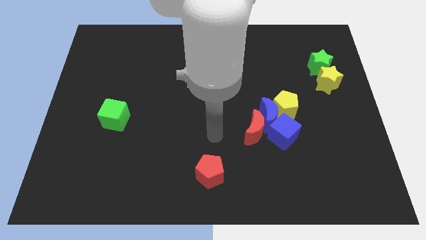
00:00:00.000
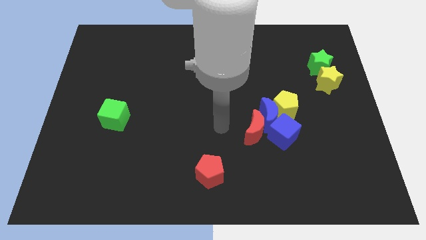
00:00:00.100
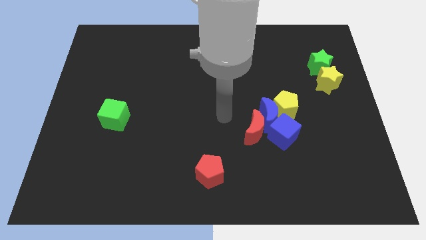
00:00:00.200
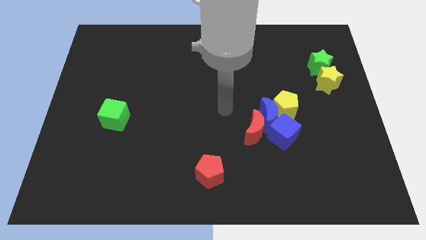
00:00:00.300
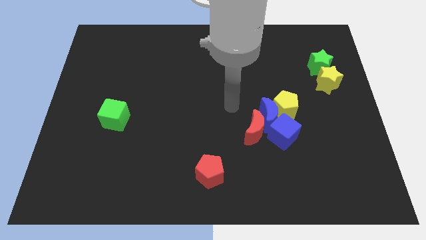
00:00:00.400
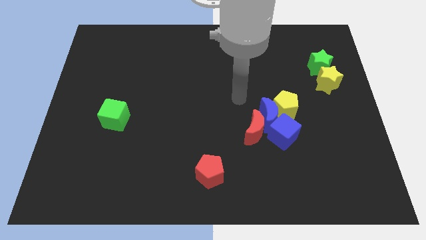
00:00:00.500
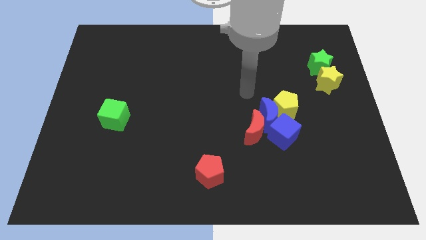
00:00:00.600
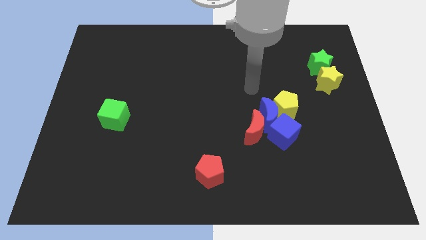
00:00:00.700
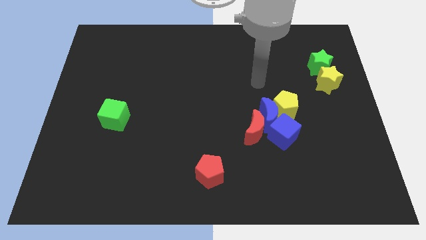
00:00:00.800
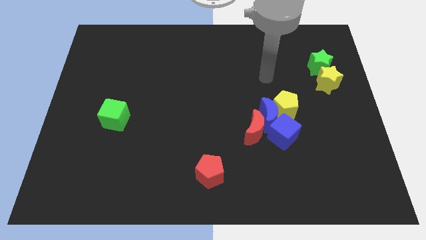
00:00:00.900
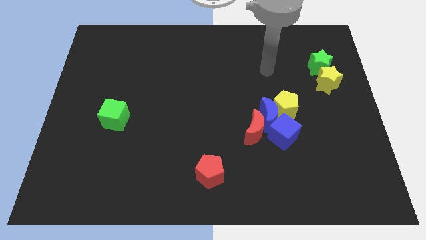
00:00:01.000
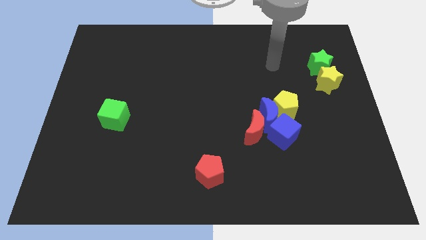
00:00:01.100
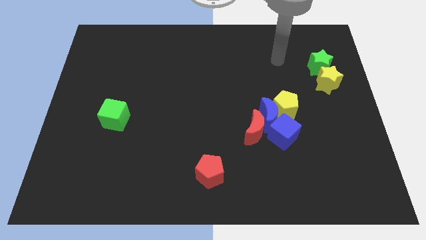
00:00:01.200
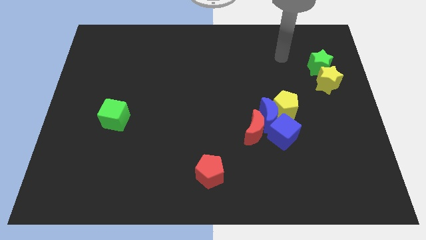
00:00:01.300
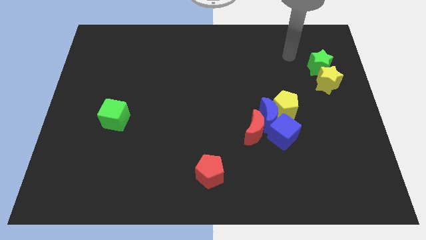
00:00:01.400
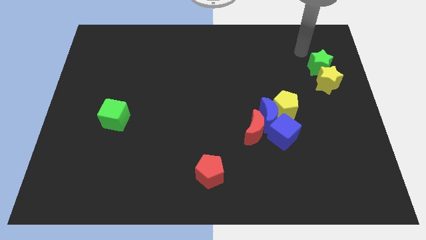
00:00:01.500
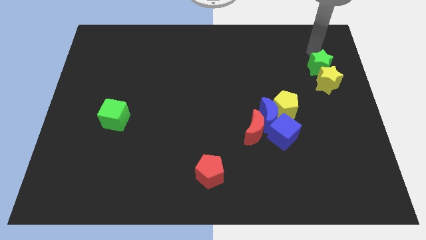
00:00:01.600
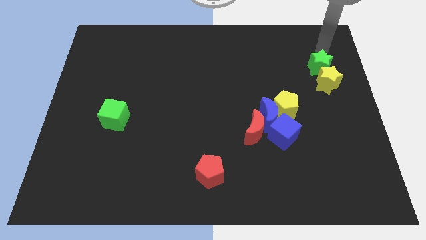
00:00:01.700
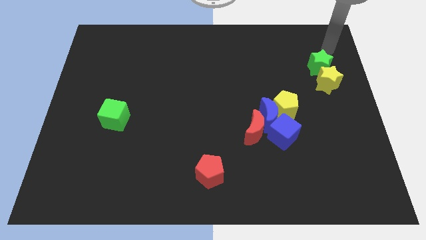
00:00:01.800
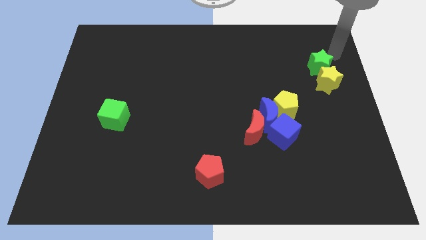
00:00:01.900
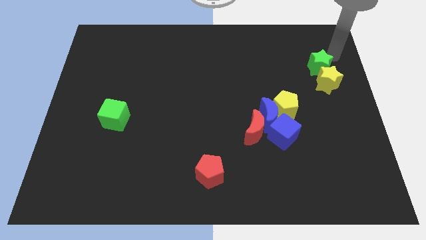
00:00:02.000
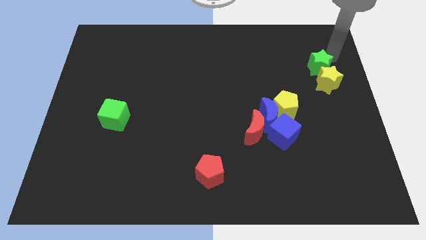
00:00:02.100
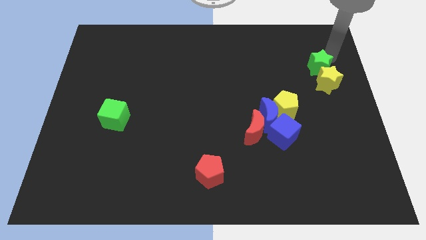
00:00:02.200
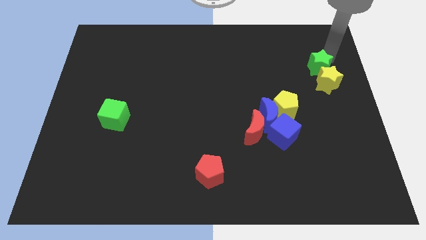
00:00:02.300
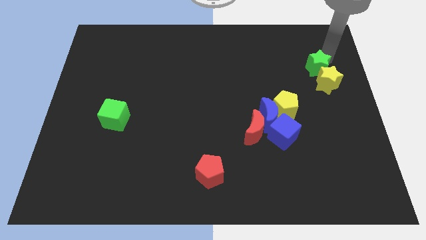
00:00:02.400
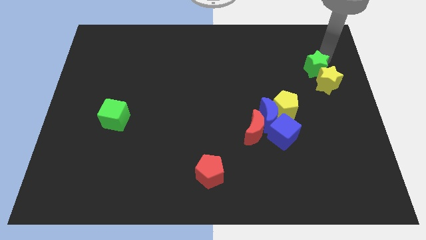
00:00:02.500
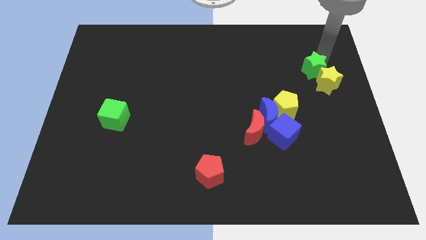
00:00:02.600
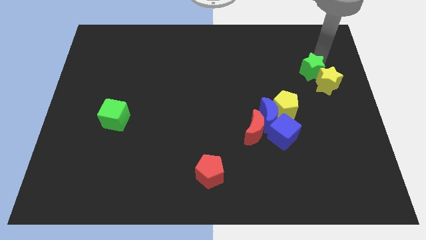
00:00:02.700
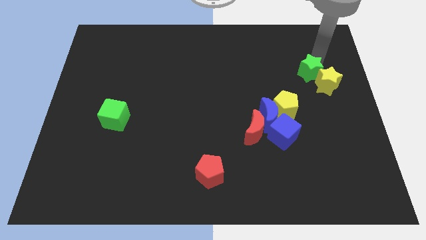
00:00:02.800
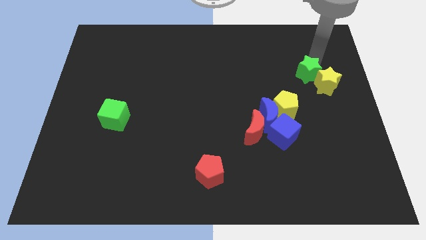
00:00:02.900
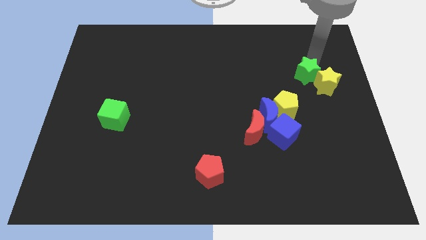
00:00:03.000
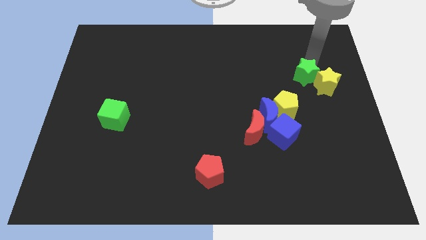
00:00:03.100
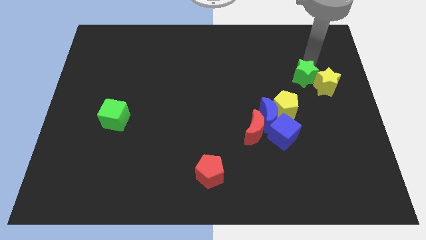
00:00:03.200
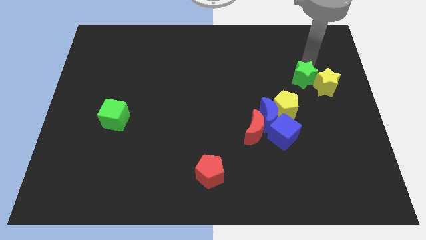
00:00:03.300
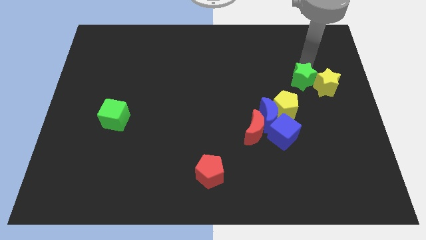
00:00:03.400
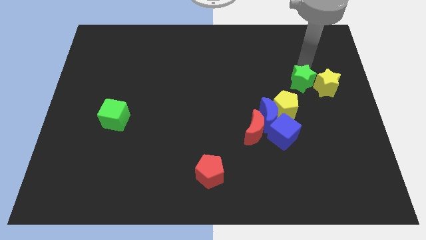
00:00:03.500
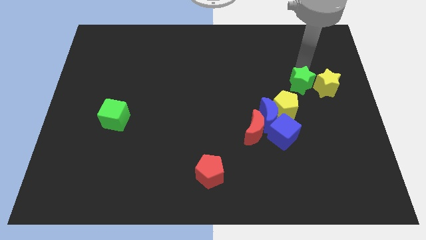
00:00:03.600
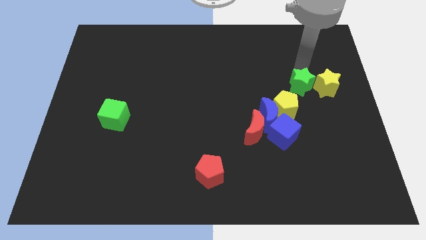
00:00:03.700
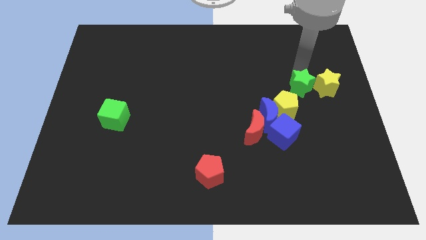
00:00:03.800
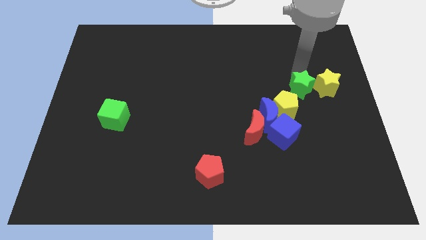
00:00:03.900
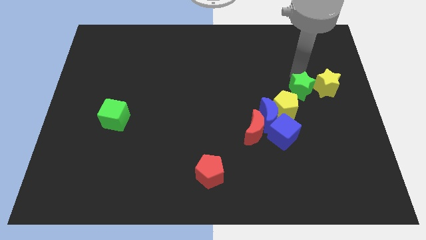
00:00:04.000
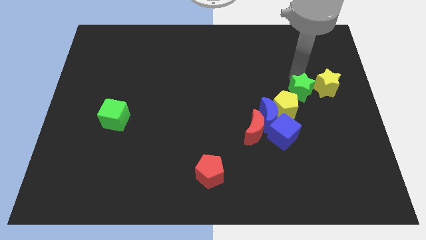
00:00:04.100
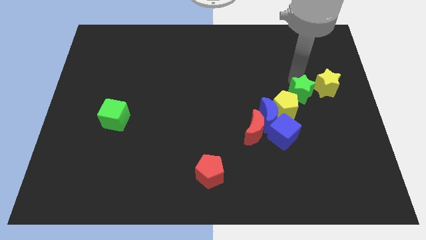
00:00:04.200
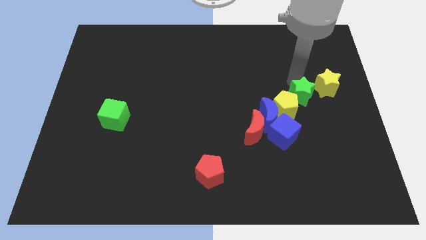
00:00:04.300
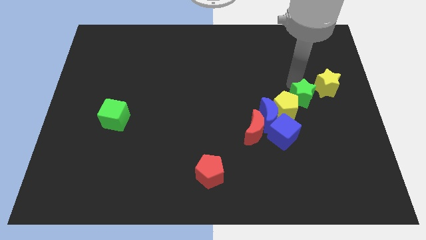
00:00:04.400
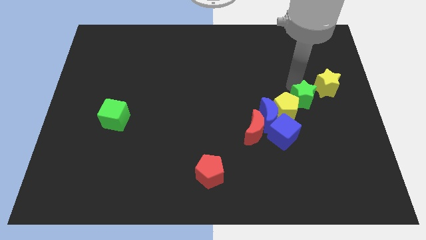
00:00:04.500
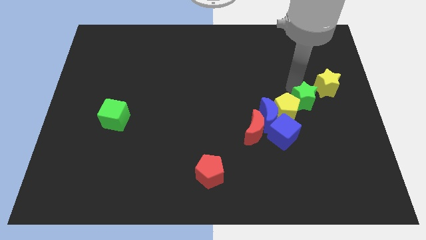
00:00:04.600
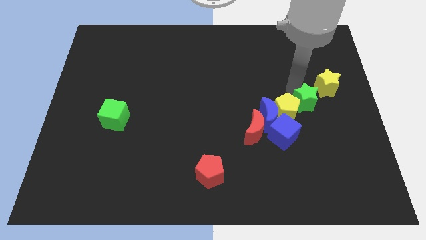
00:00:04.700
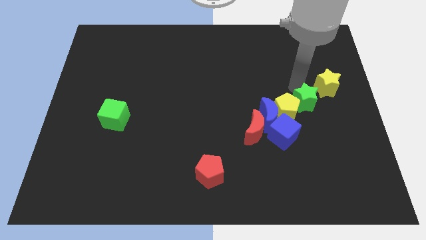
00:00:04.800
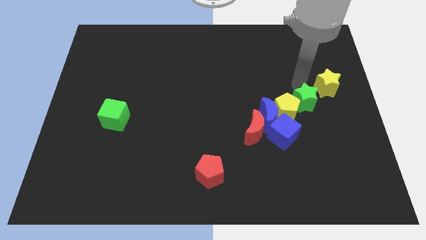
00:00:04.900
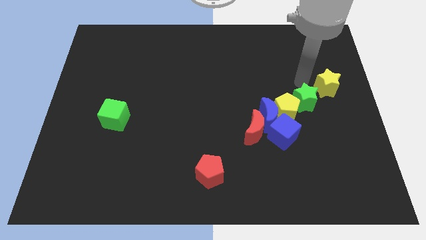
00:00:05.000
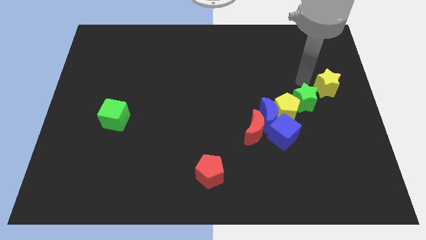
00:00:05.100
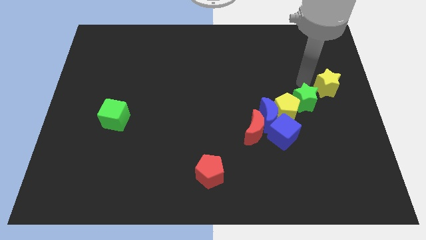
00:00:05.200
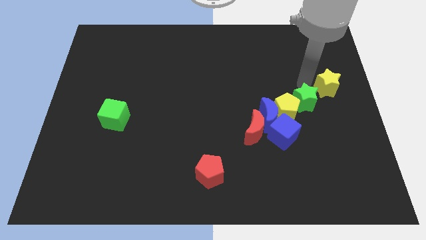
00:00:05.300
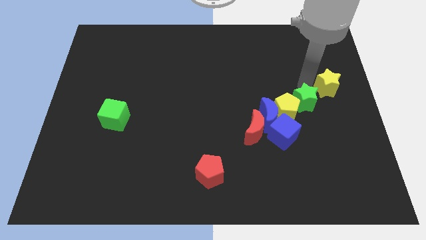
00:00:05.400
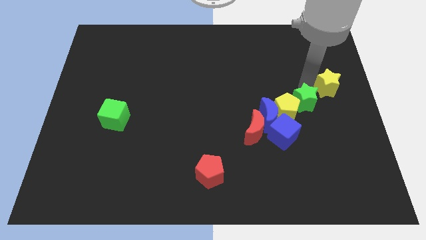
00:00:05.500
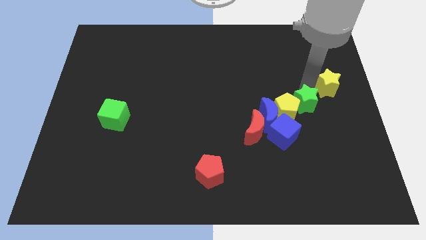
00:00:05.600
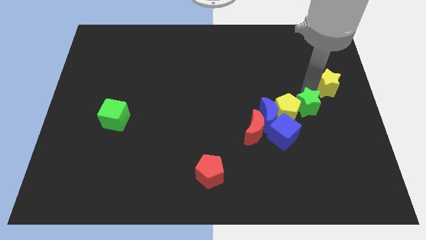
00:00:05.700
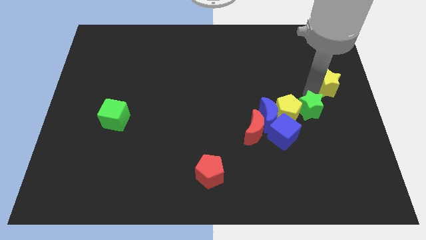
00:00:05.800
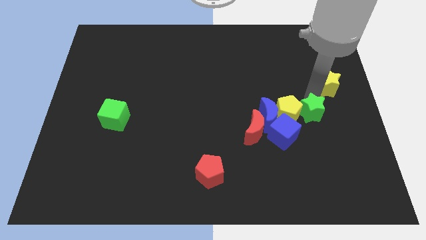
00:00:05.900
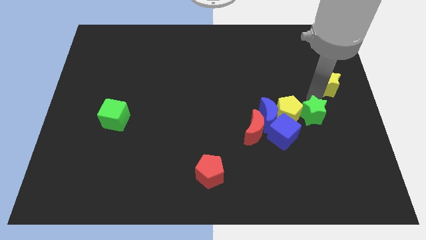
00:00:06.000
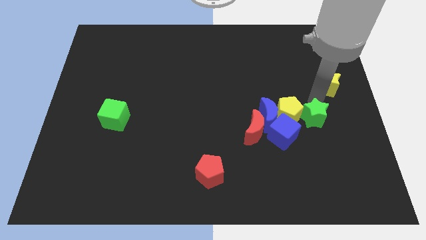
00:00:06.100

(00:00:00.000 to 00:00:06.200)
push the green star just right of the red moon

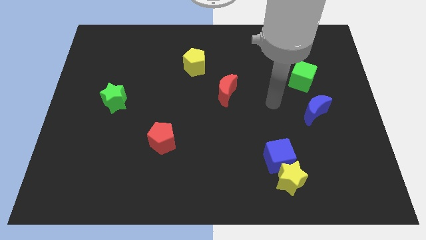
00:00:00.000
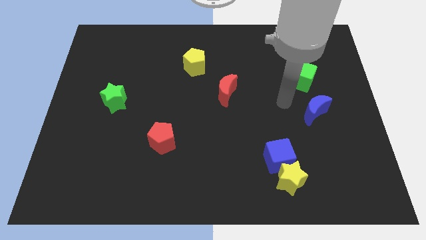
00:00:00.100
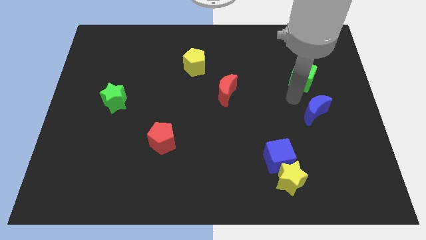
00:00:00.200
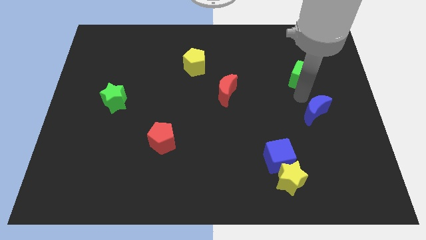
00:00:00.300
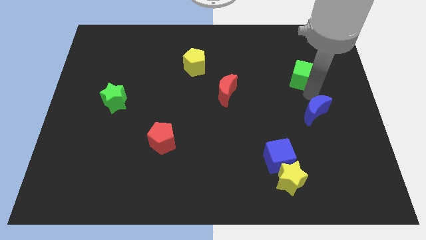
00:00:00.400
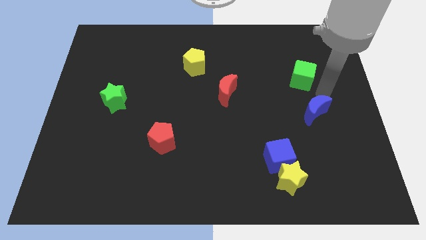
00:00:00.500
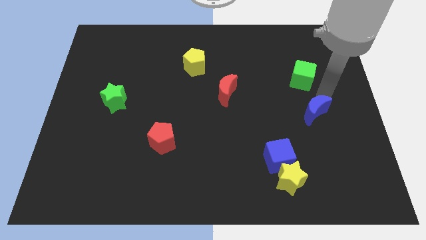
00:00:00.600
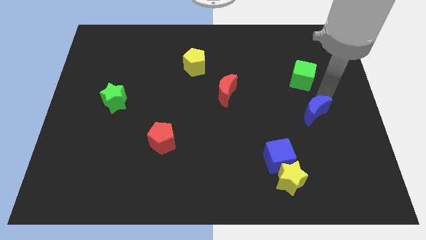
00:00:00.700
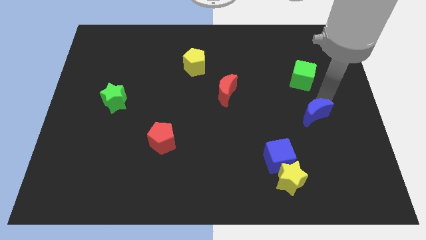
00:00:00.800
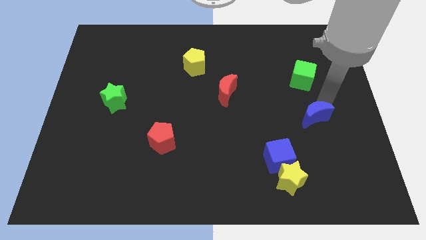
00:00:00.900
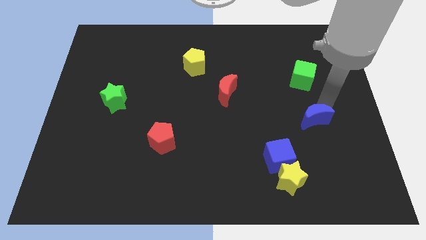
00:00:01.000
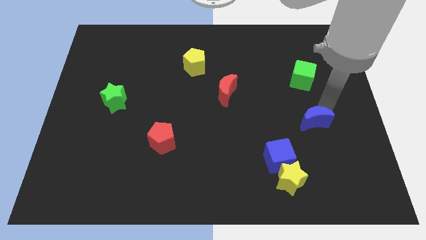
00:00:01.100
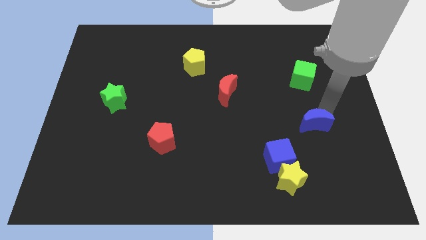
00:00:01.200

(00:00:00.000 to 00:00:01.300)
slide the blue moon diagonally up and to the right of the blue cube
